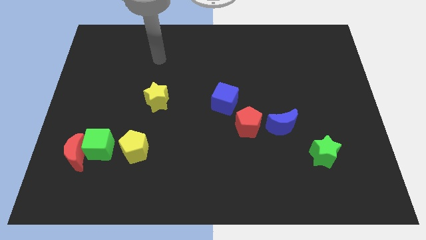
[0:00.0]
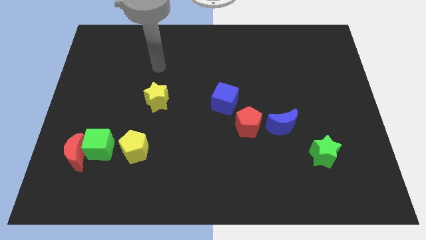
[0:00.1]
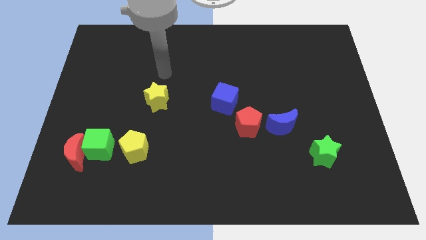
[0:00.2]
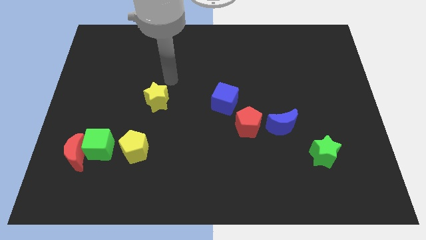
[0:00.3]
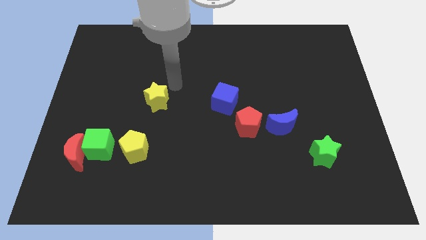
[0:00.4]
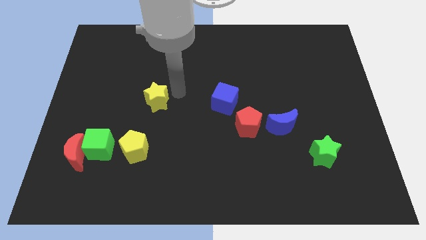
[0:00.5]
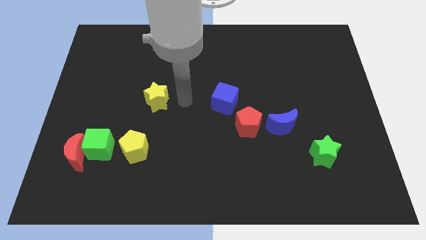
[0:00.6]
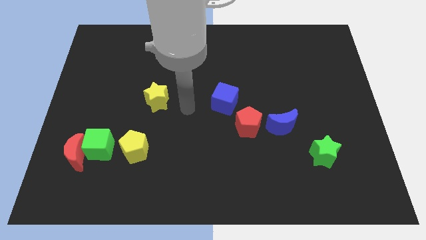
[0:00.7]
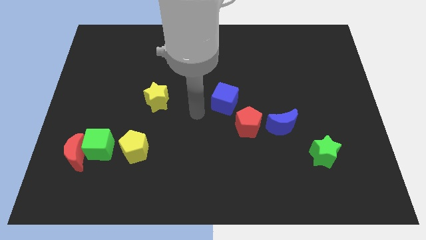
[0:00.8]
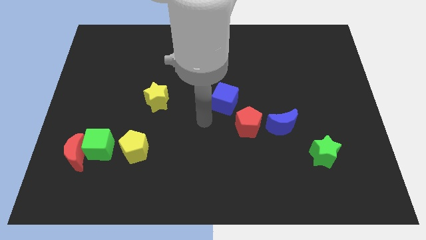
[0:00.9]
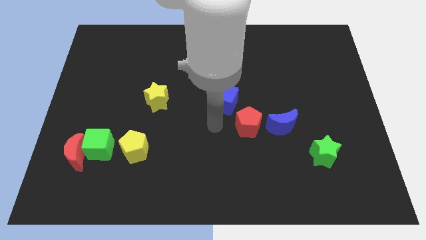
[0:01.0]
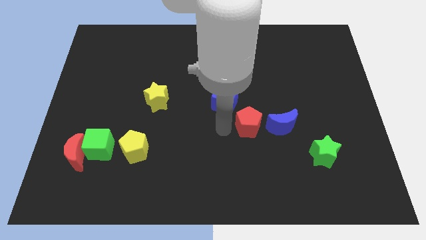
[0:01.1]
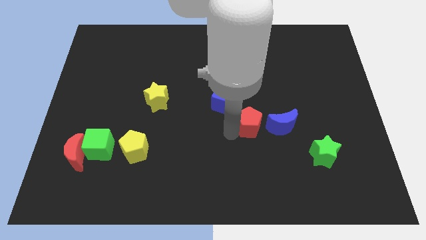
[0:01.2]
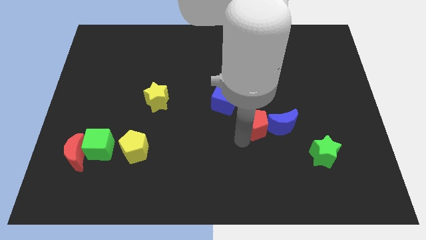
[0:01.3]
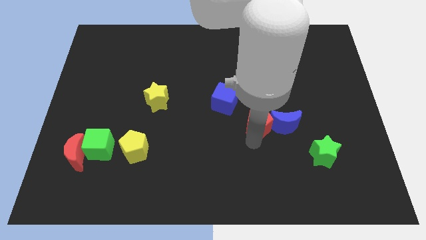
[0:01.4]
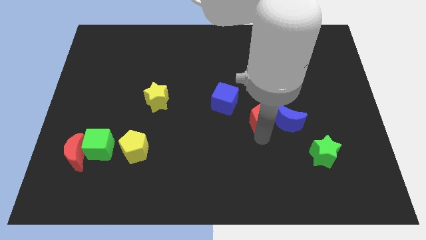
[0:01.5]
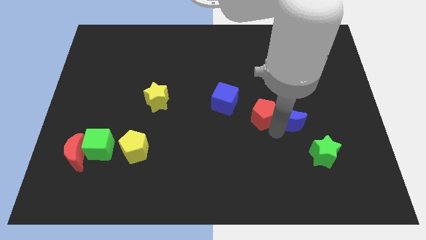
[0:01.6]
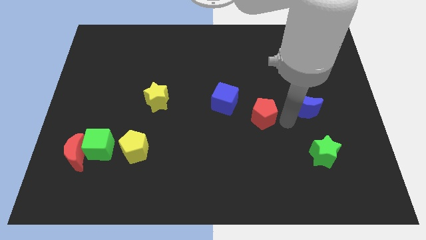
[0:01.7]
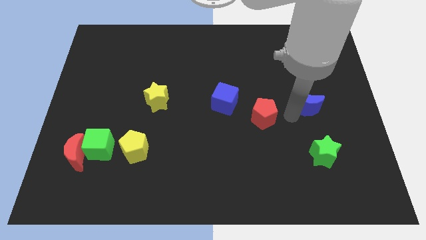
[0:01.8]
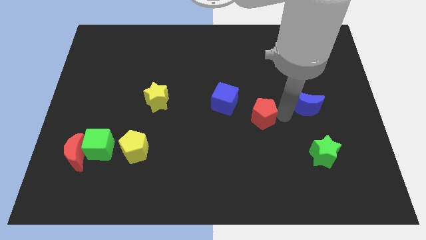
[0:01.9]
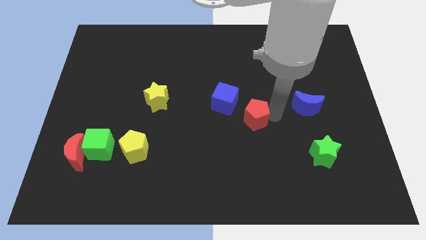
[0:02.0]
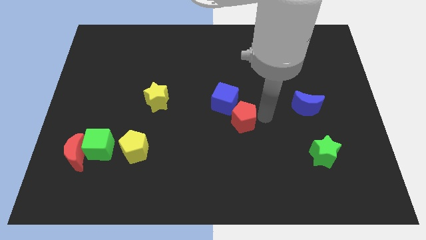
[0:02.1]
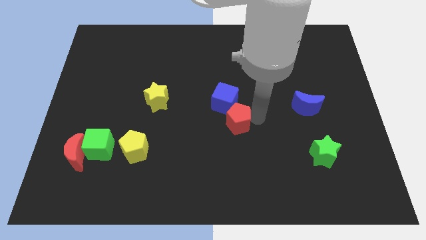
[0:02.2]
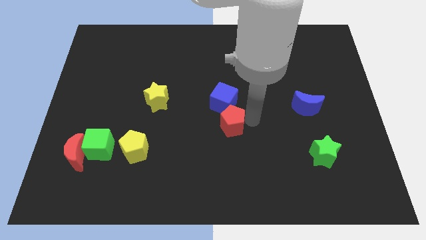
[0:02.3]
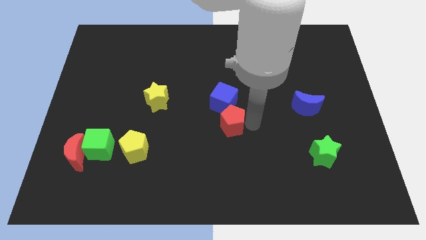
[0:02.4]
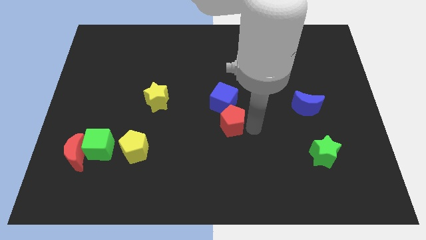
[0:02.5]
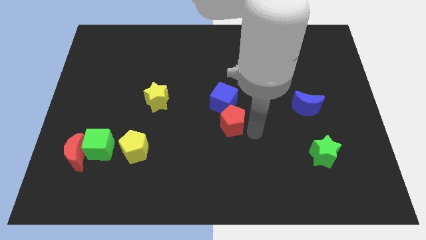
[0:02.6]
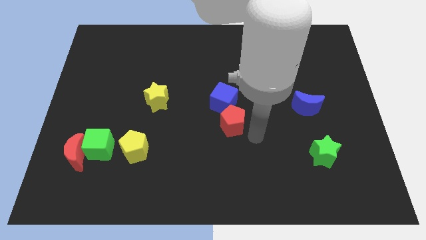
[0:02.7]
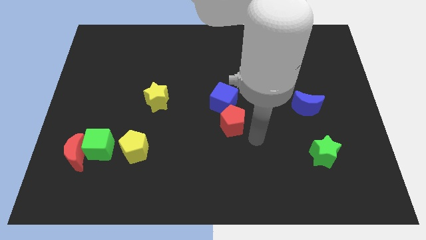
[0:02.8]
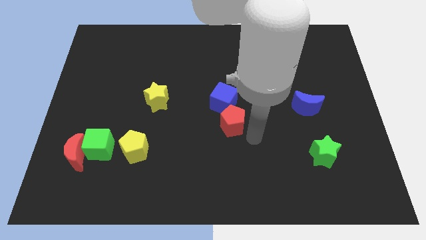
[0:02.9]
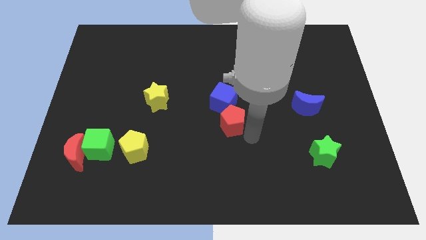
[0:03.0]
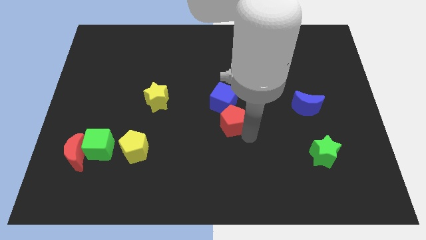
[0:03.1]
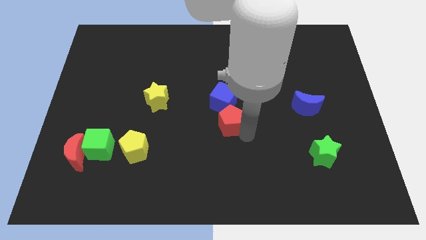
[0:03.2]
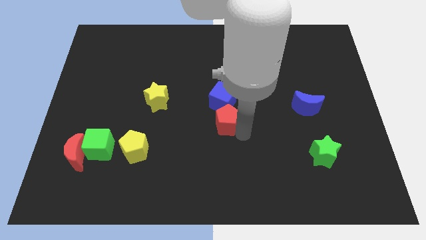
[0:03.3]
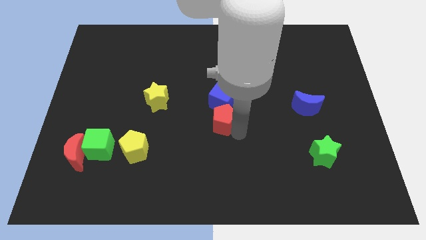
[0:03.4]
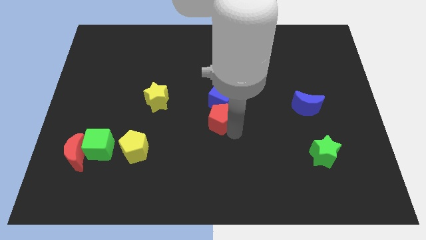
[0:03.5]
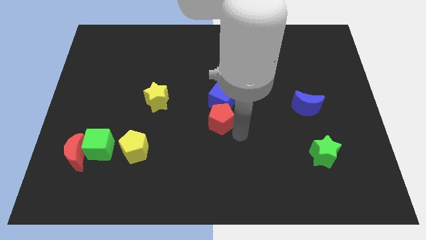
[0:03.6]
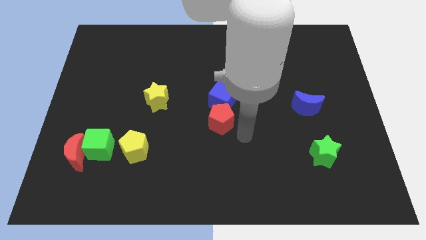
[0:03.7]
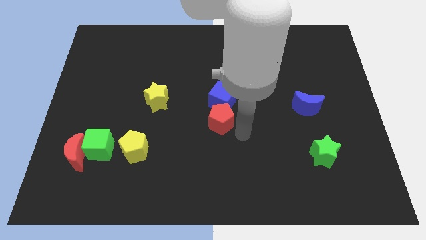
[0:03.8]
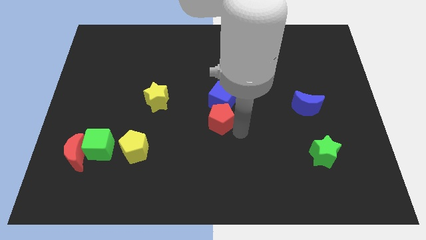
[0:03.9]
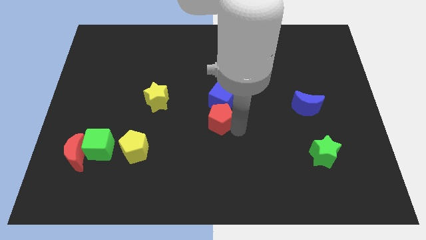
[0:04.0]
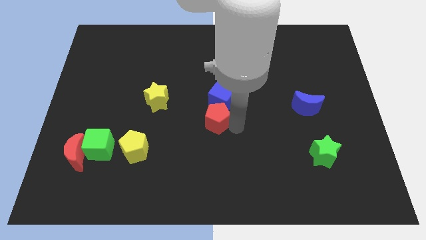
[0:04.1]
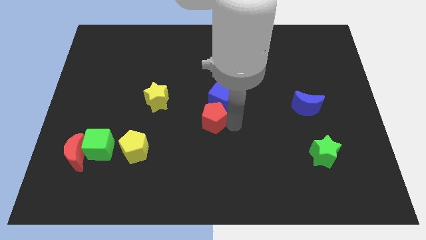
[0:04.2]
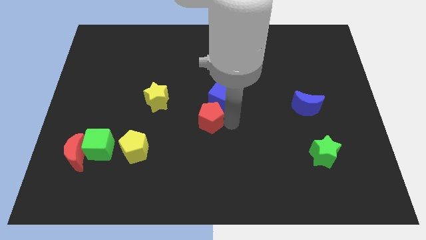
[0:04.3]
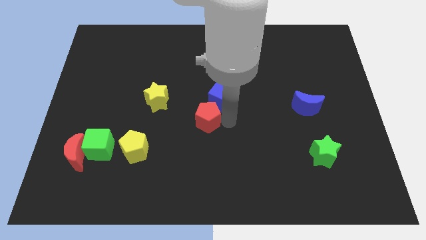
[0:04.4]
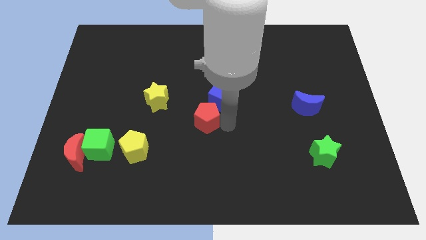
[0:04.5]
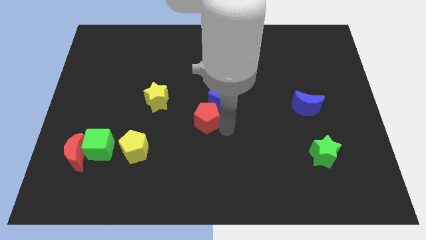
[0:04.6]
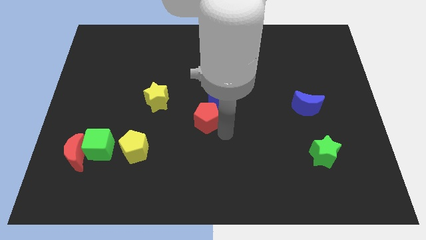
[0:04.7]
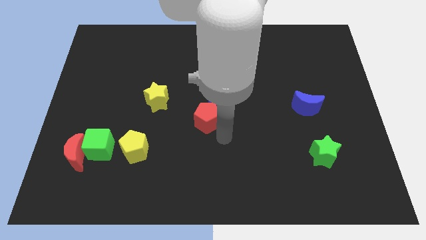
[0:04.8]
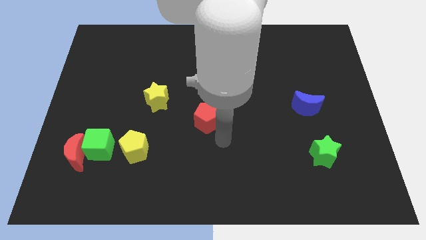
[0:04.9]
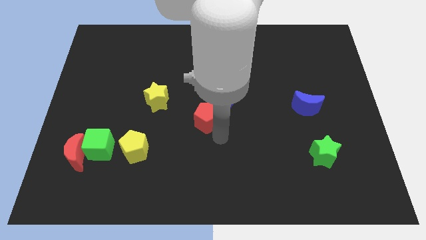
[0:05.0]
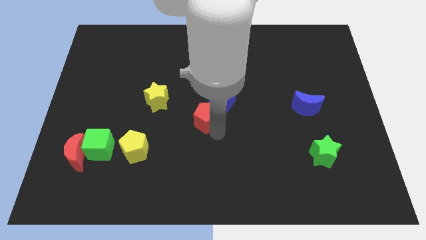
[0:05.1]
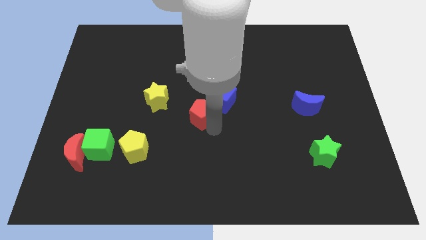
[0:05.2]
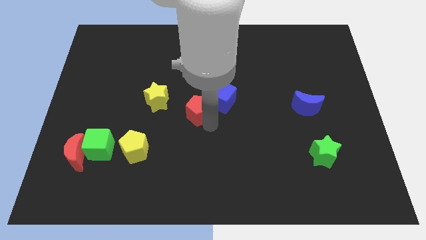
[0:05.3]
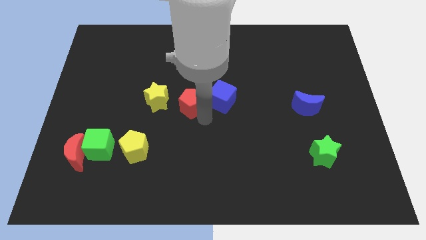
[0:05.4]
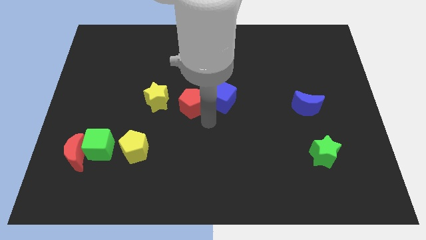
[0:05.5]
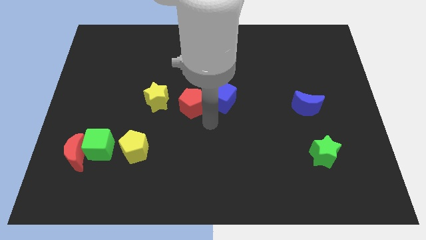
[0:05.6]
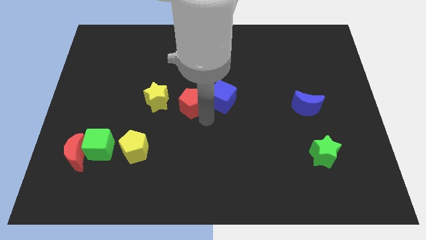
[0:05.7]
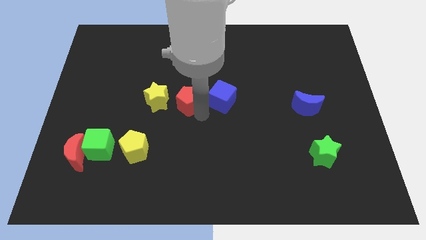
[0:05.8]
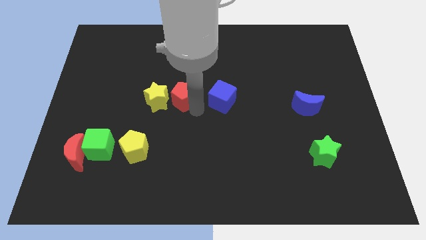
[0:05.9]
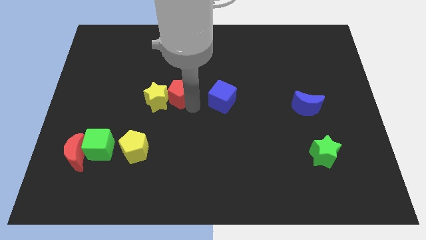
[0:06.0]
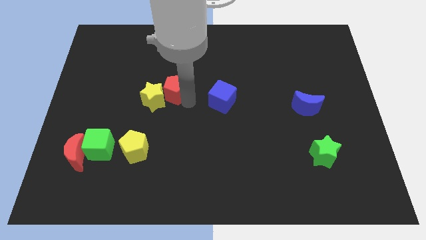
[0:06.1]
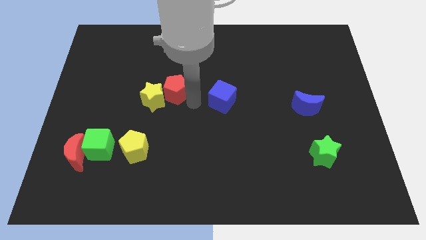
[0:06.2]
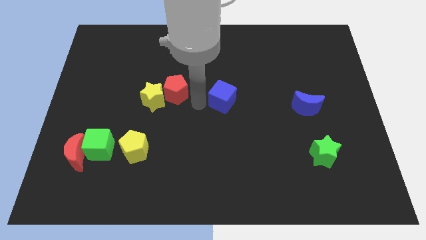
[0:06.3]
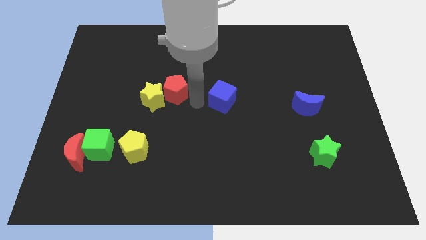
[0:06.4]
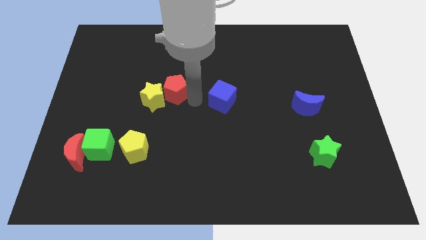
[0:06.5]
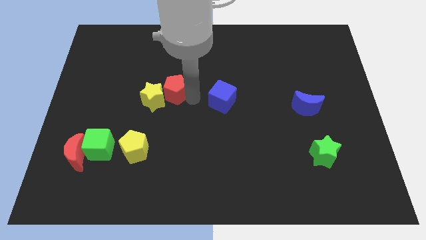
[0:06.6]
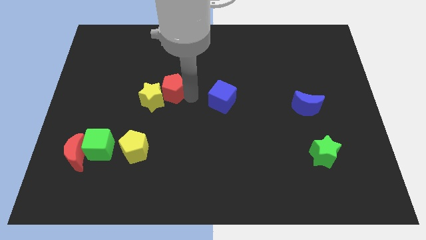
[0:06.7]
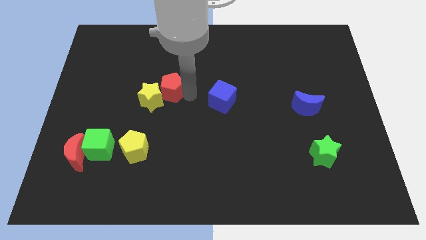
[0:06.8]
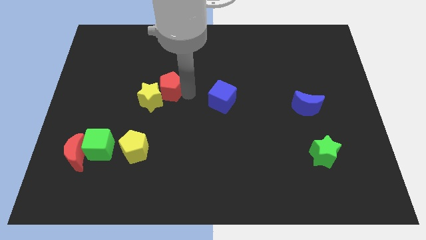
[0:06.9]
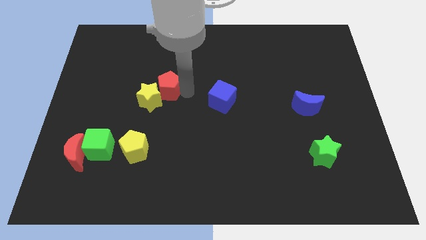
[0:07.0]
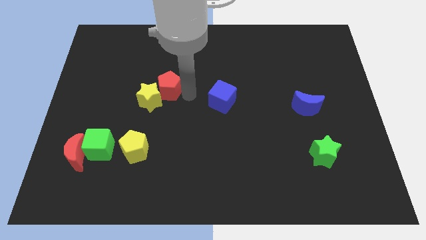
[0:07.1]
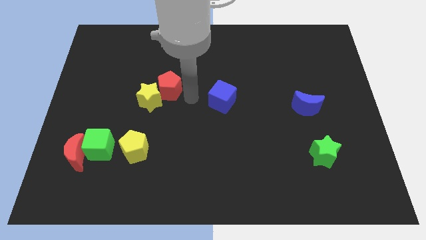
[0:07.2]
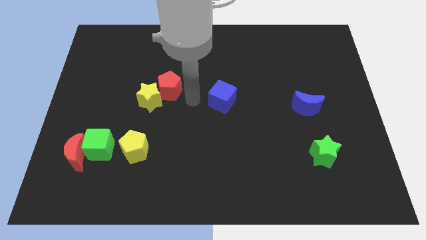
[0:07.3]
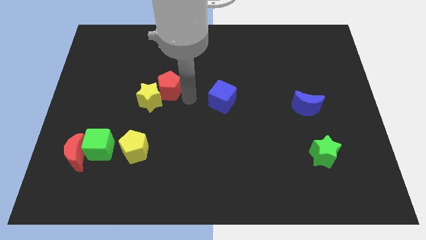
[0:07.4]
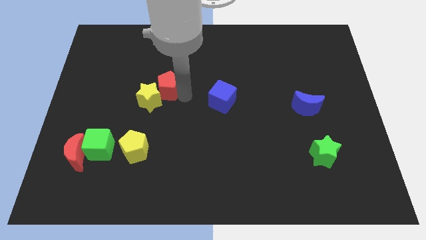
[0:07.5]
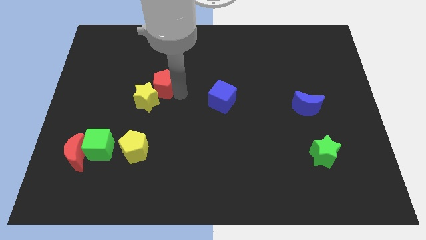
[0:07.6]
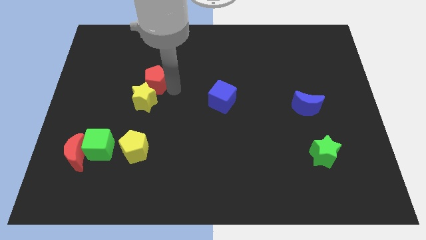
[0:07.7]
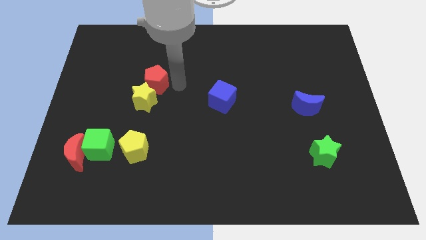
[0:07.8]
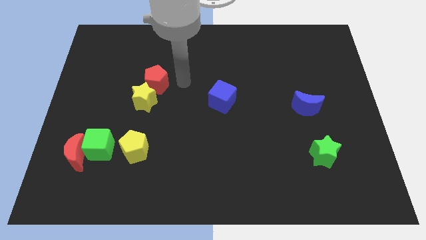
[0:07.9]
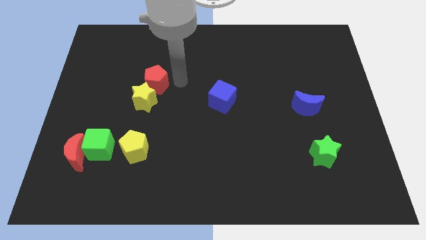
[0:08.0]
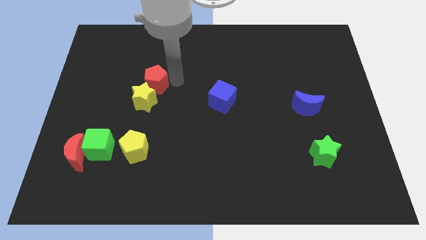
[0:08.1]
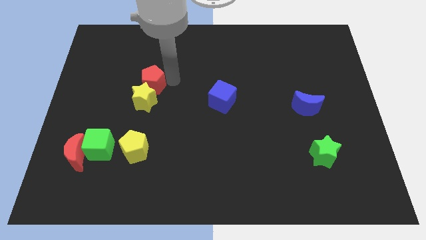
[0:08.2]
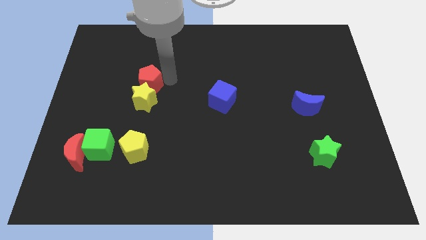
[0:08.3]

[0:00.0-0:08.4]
move the red pentagon to the top left of the yellow star
